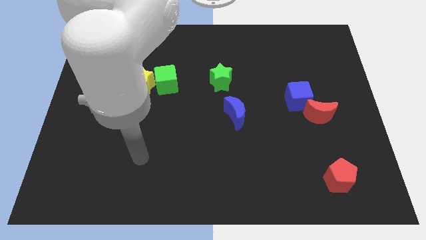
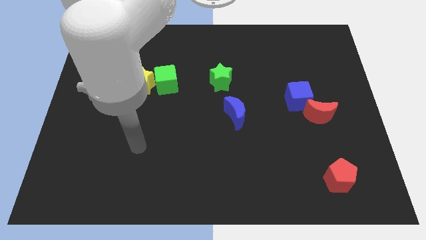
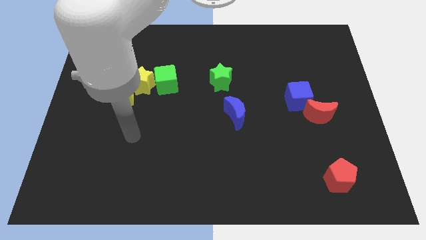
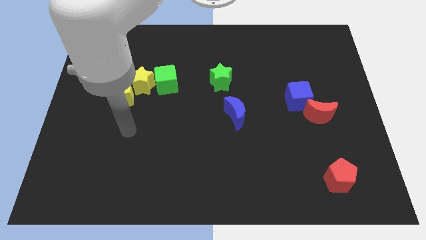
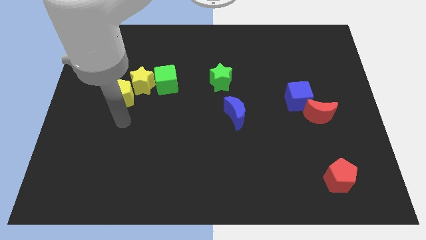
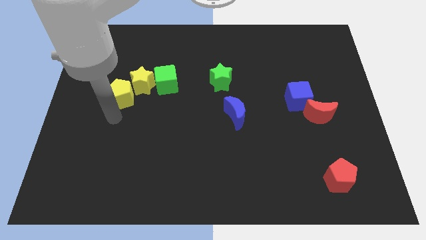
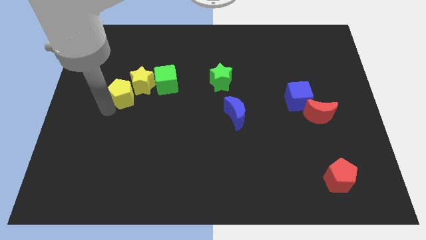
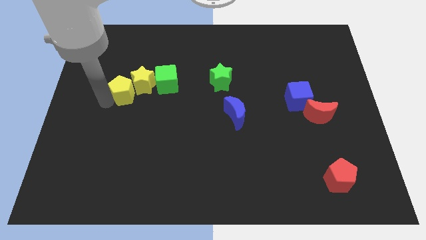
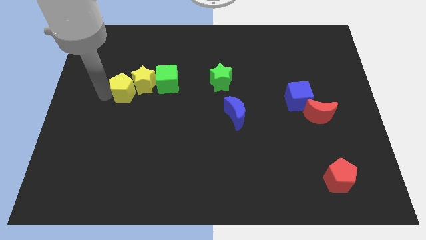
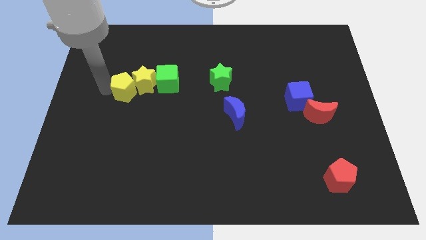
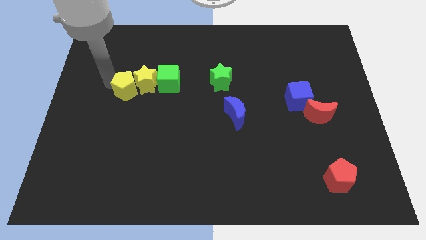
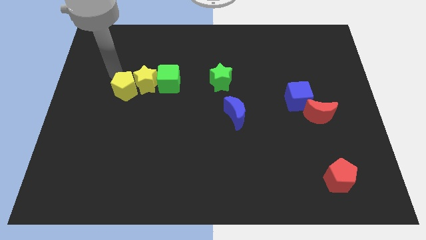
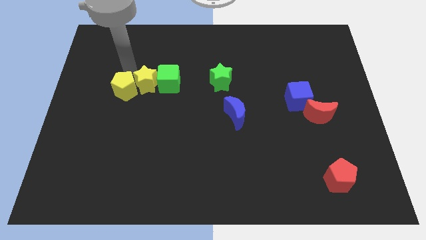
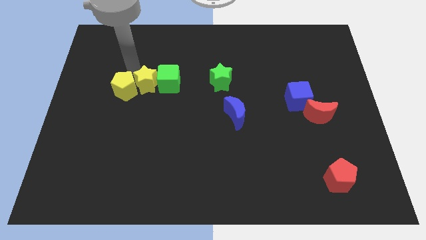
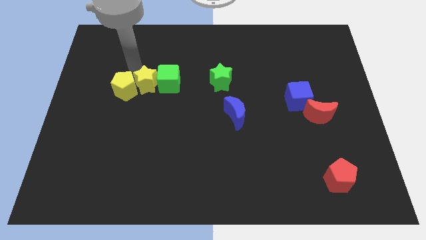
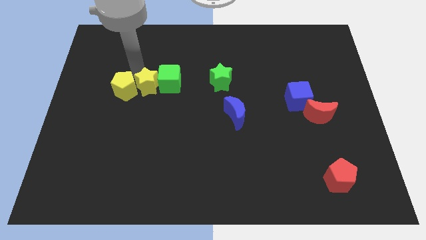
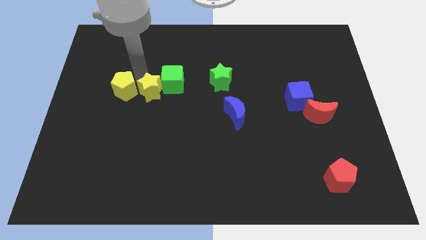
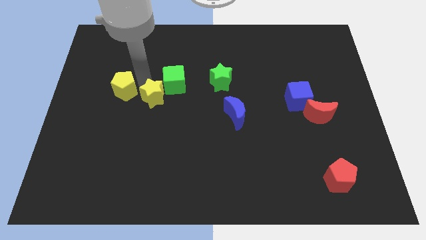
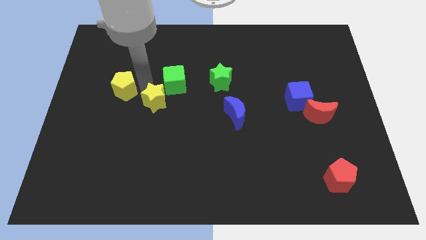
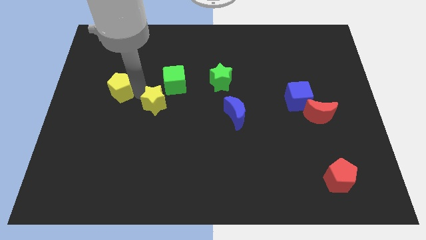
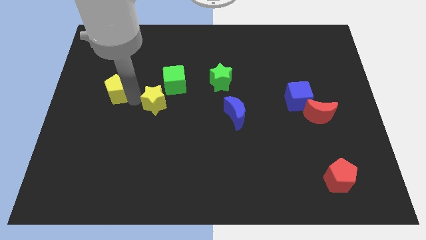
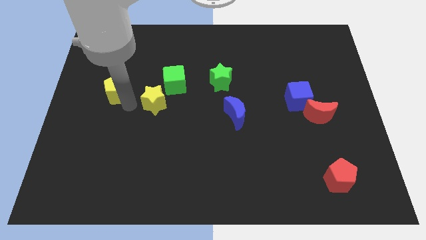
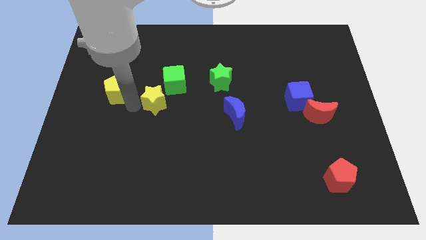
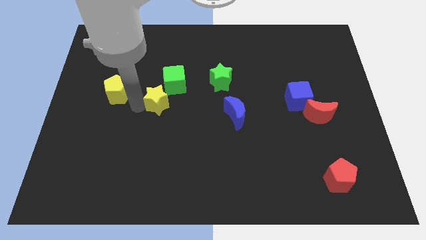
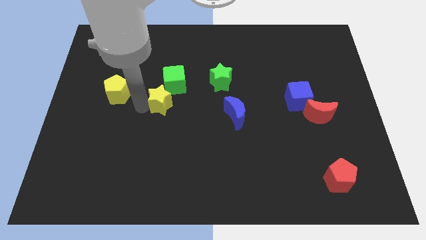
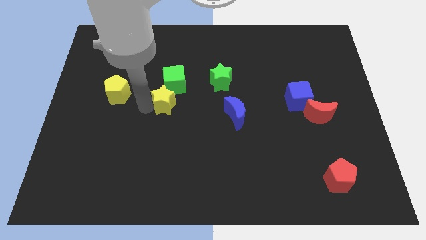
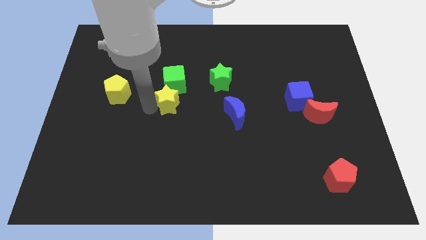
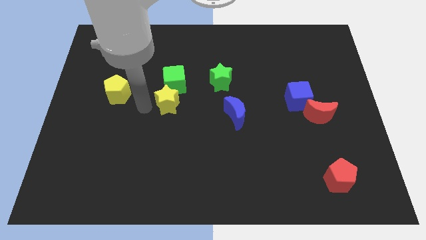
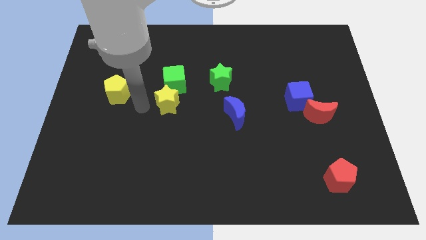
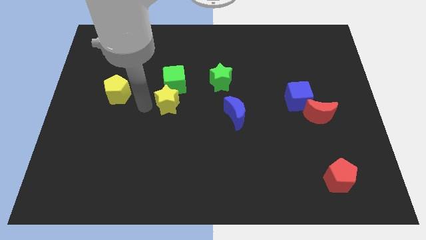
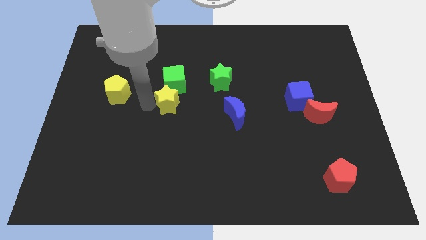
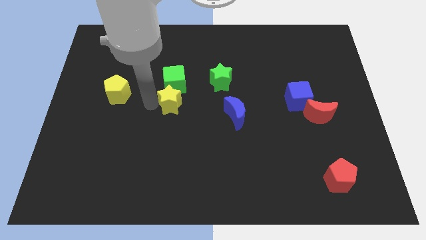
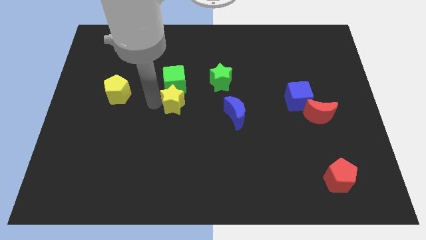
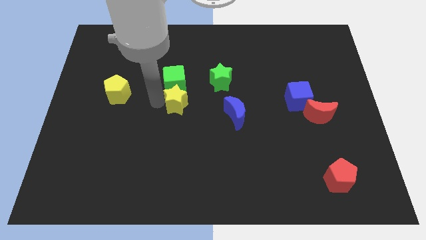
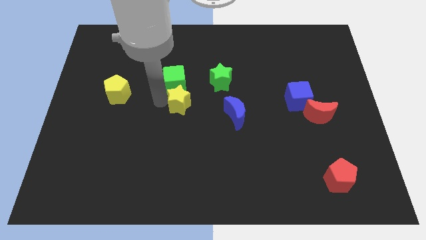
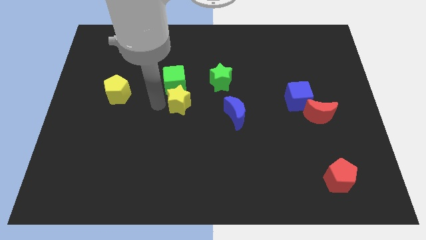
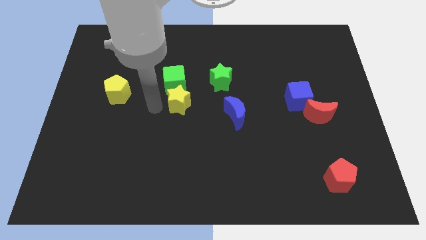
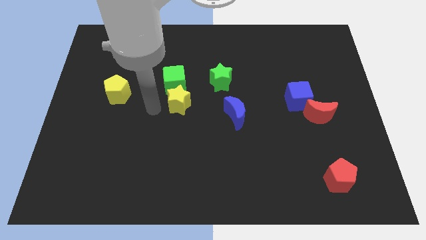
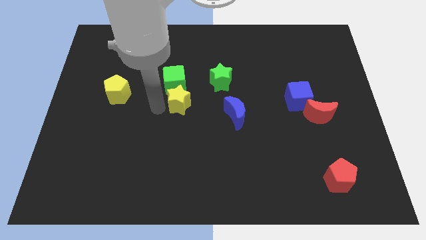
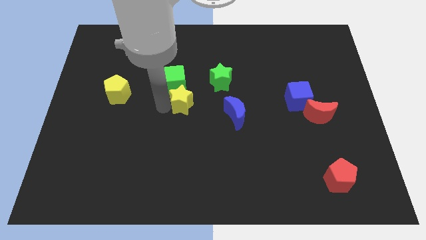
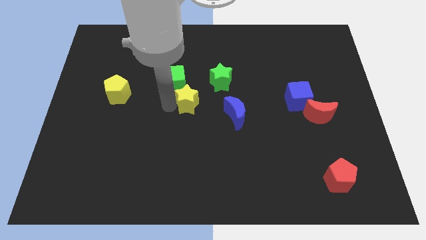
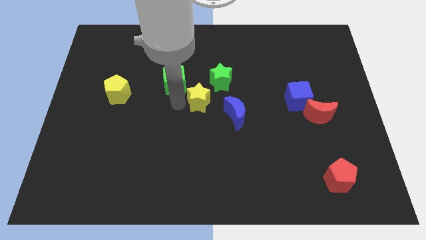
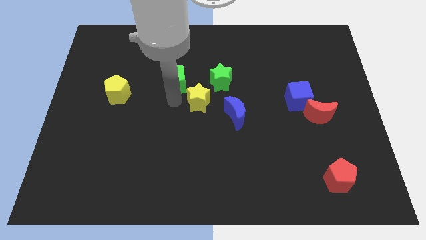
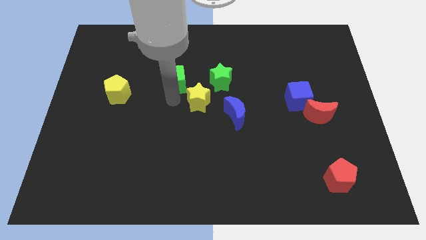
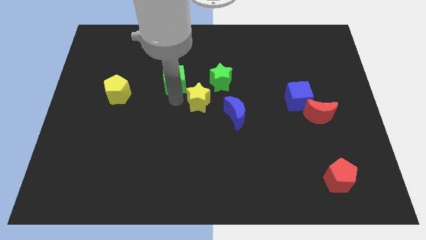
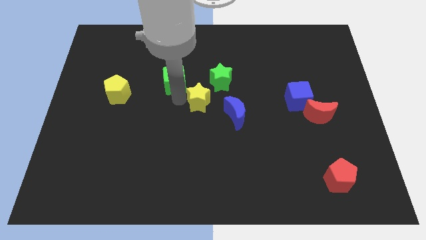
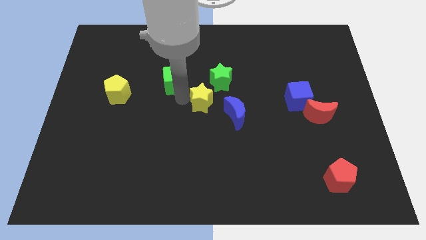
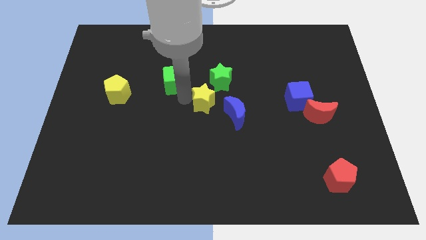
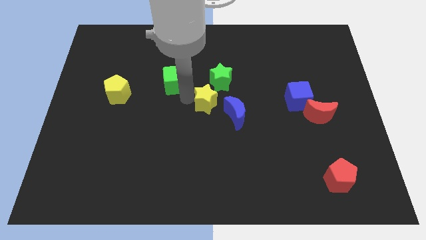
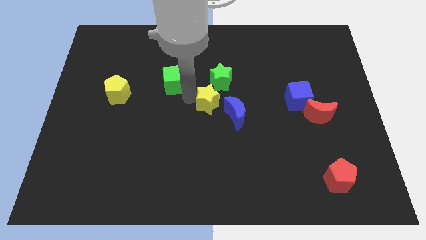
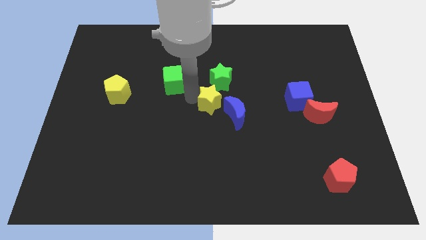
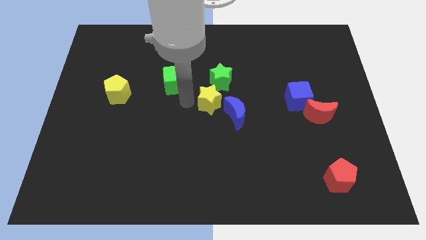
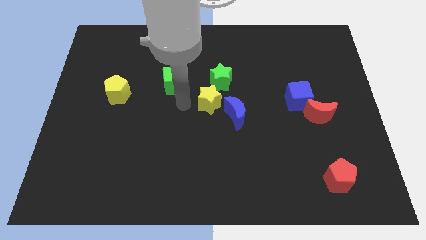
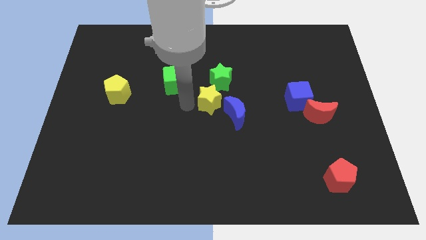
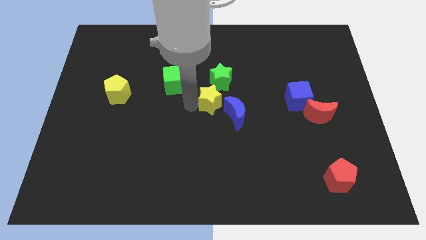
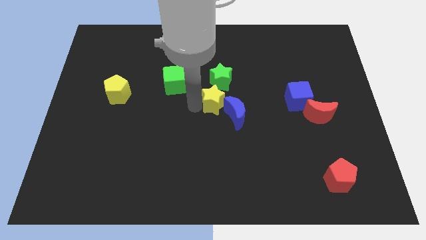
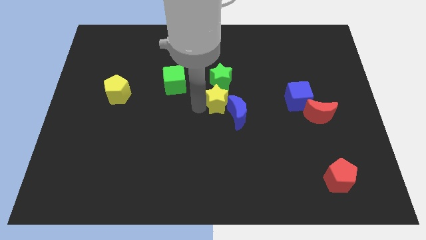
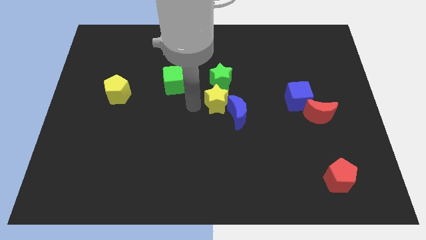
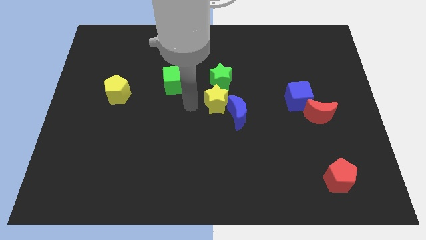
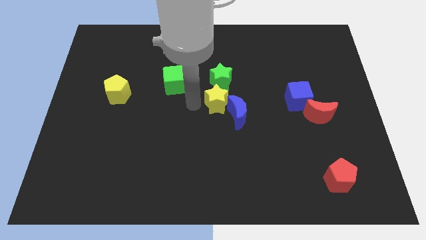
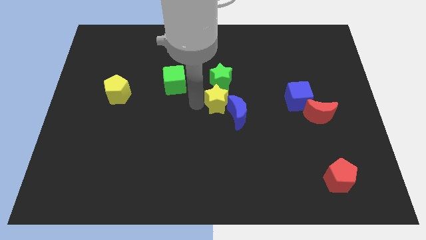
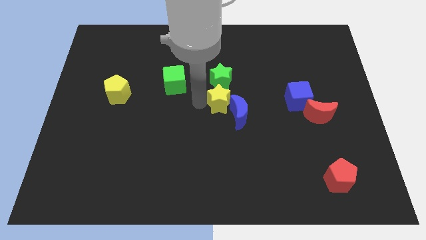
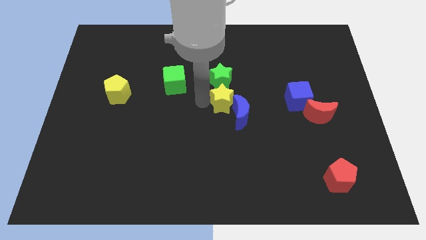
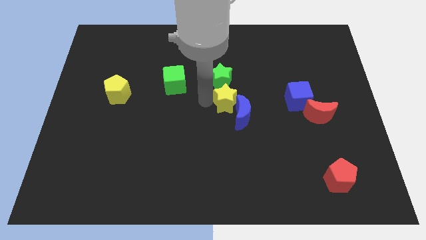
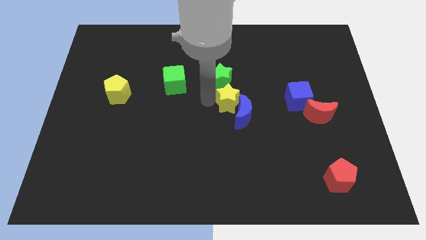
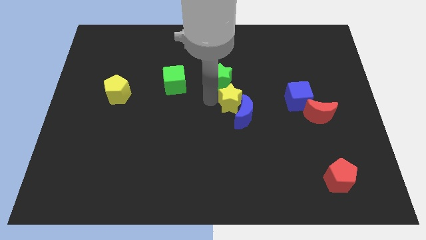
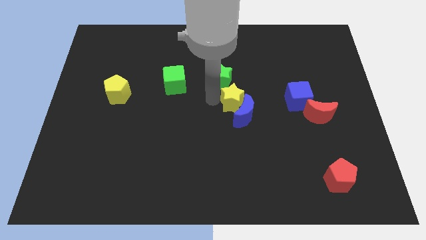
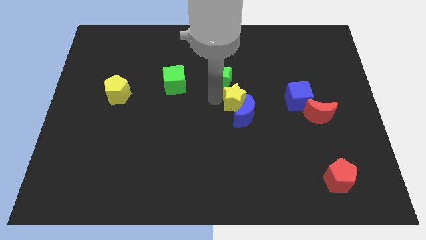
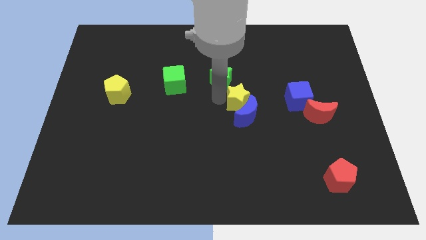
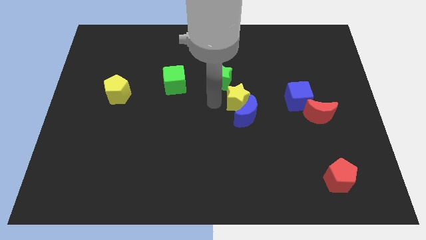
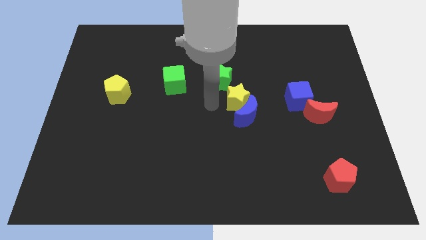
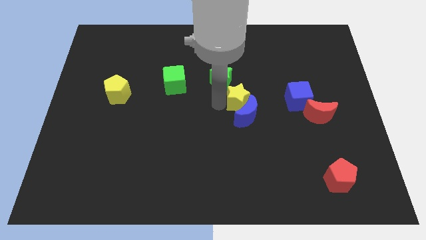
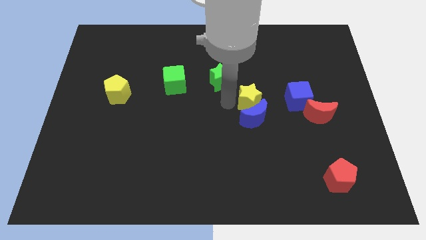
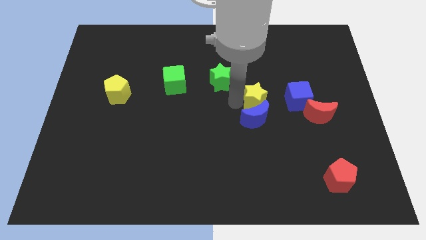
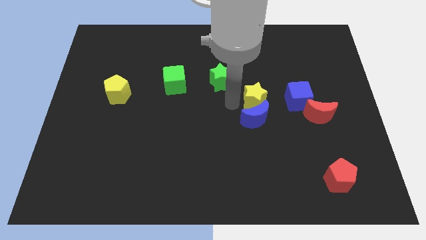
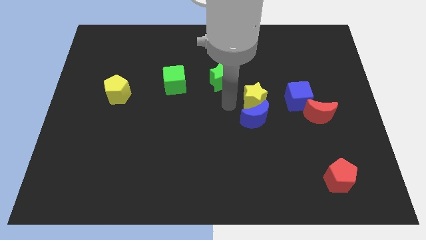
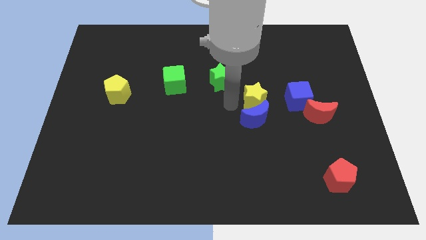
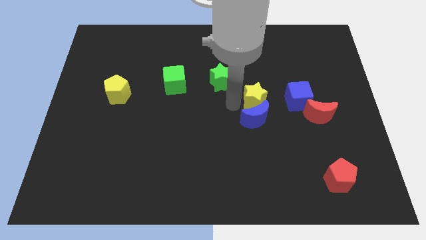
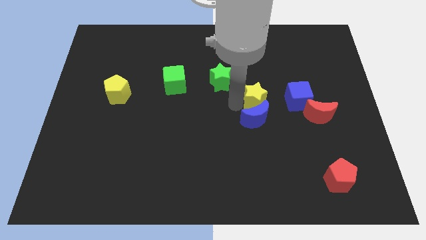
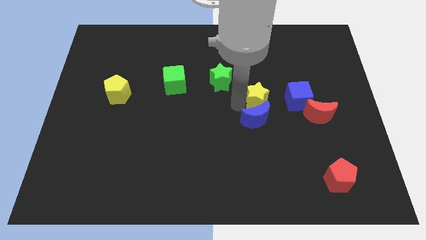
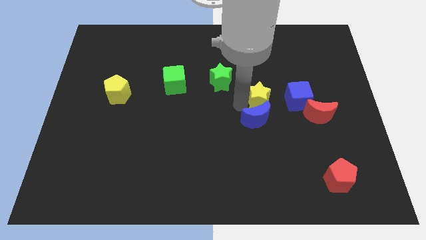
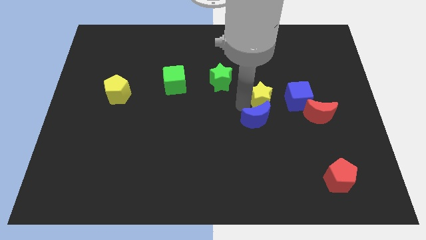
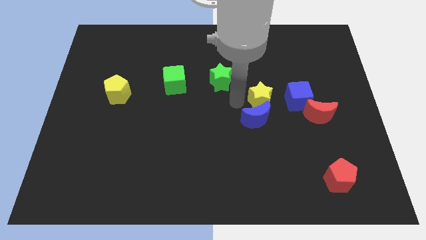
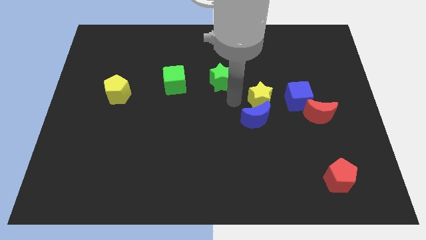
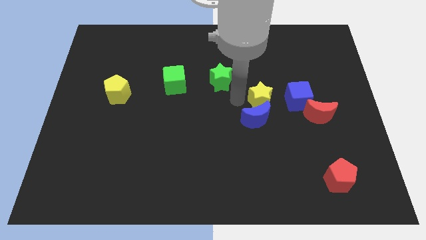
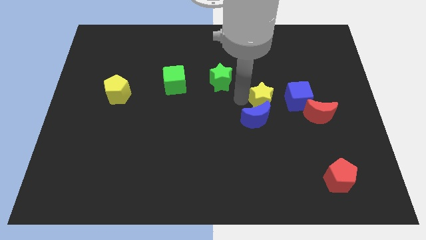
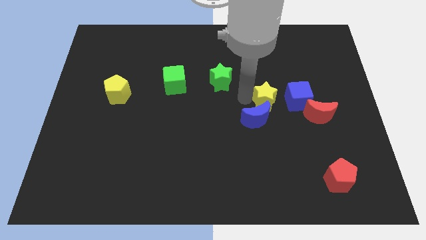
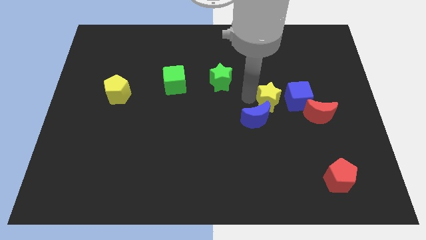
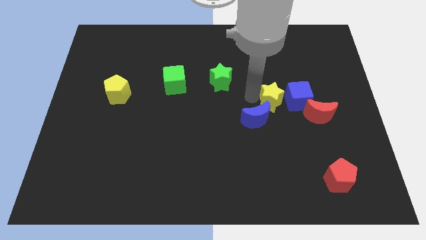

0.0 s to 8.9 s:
push the yellow star next to the blue cube
